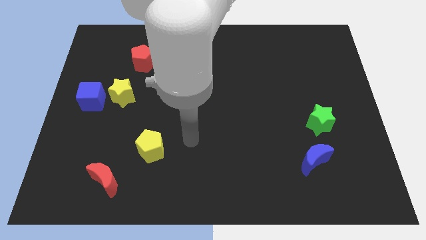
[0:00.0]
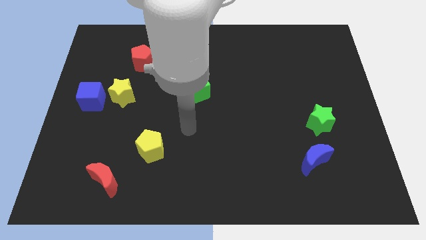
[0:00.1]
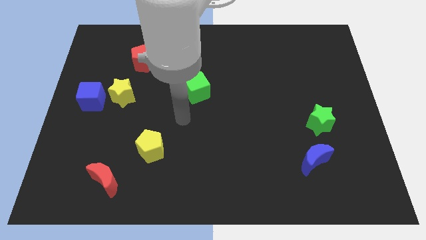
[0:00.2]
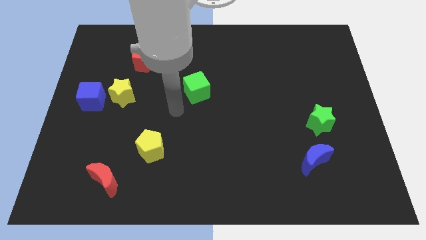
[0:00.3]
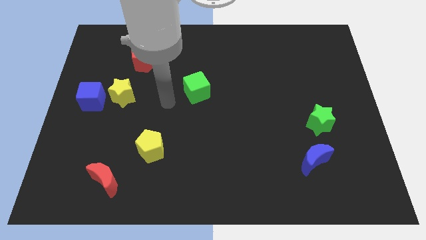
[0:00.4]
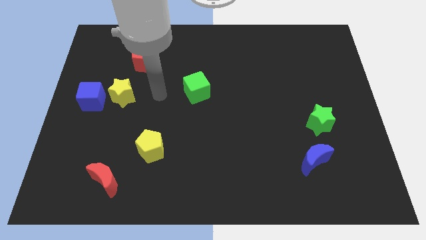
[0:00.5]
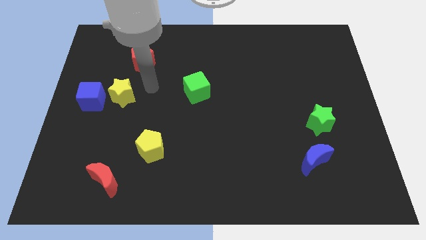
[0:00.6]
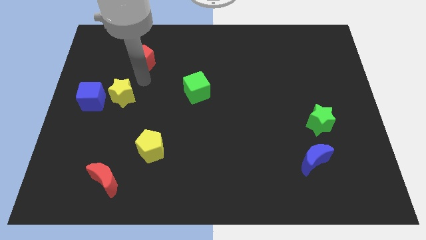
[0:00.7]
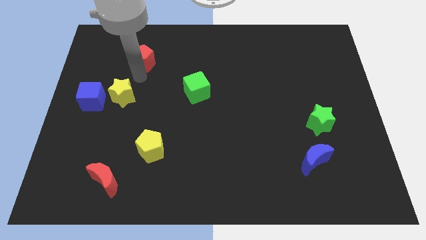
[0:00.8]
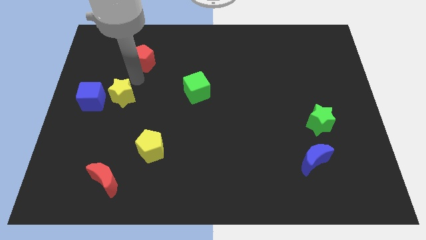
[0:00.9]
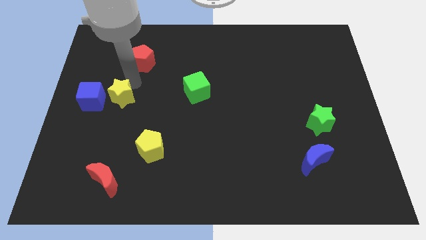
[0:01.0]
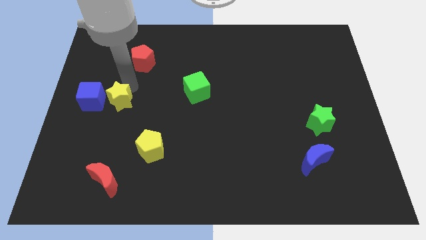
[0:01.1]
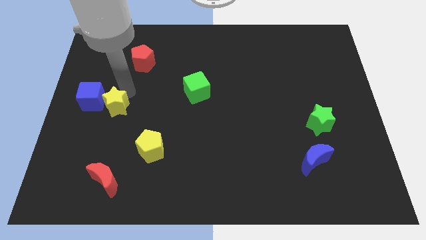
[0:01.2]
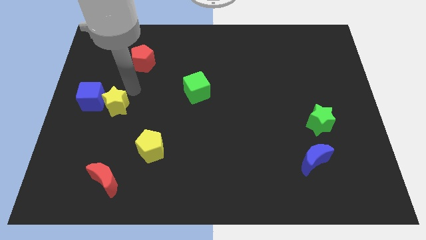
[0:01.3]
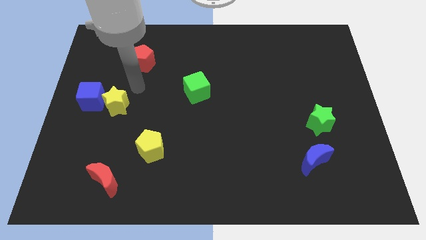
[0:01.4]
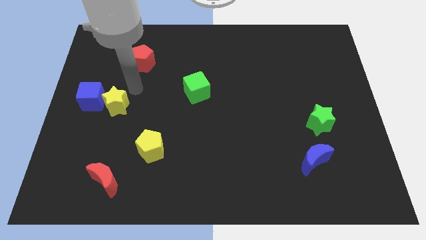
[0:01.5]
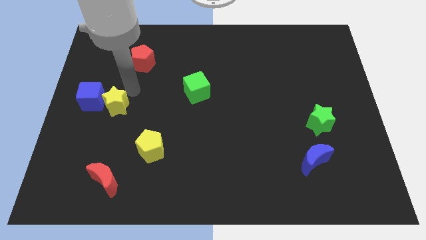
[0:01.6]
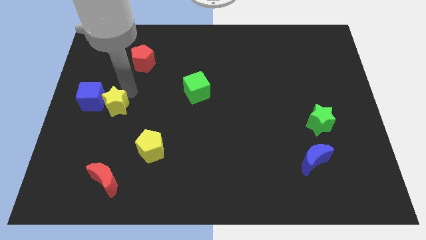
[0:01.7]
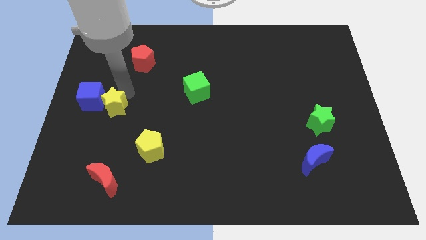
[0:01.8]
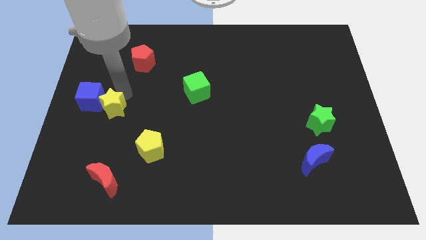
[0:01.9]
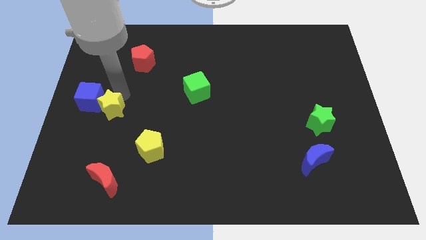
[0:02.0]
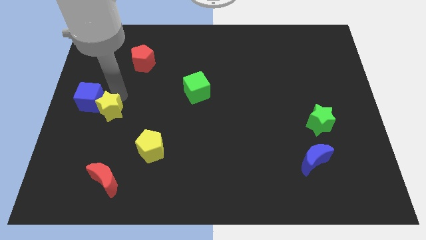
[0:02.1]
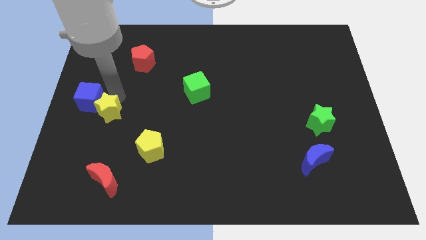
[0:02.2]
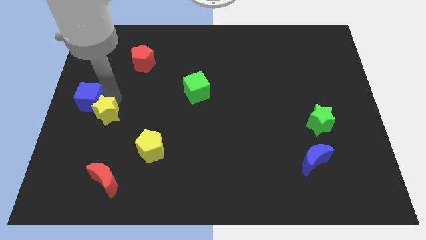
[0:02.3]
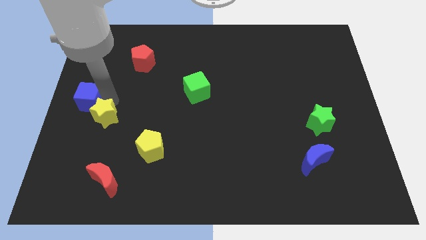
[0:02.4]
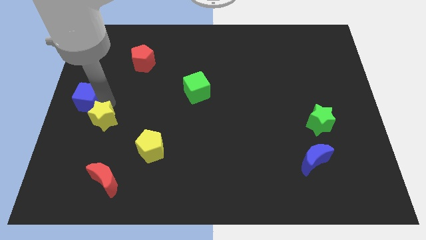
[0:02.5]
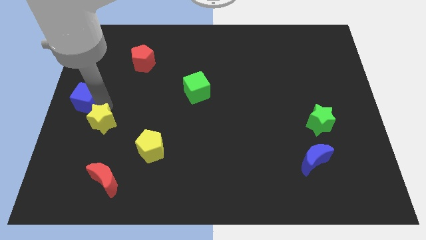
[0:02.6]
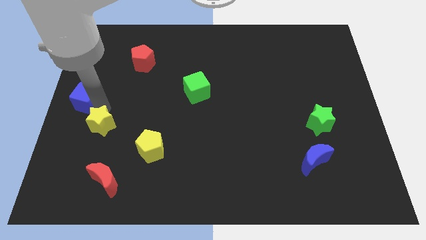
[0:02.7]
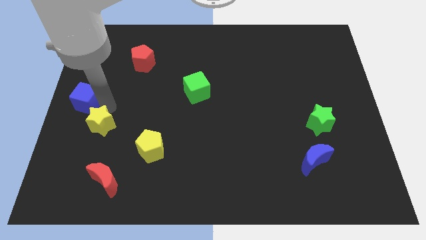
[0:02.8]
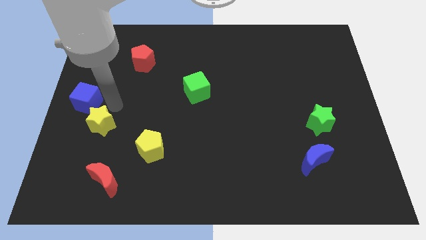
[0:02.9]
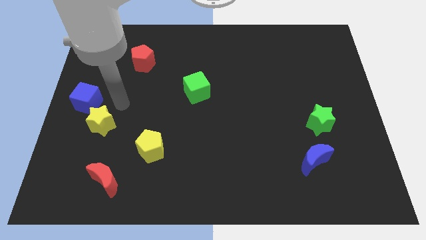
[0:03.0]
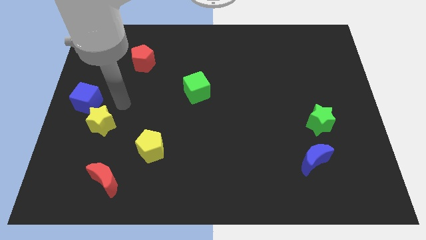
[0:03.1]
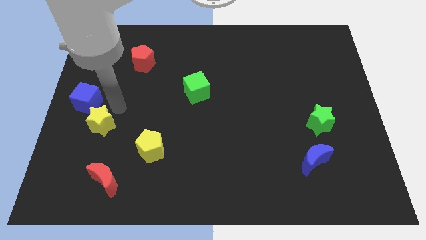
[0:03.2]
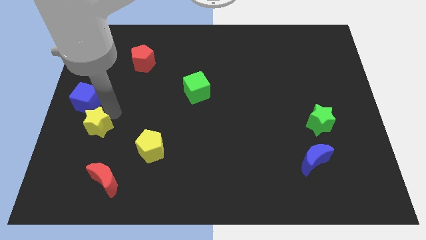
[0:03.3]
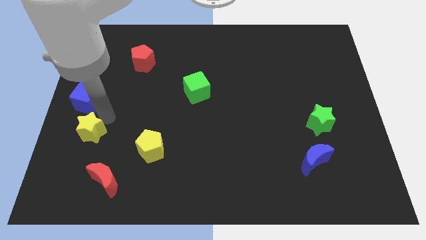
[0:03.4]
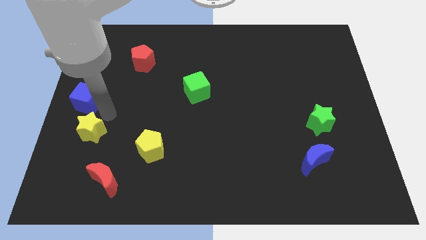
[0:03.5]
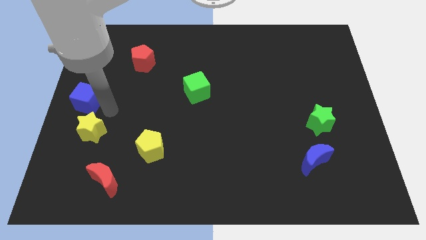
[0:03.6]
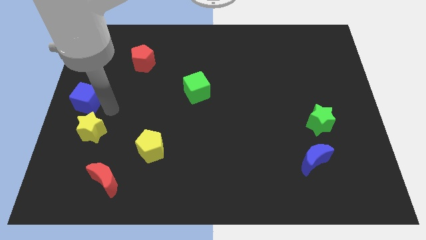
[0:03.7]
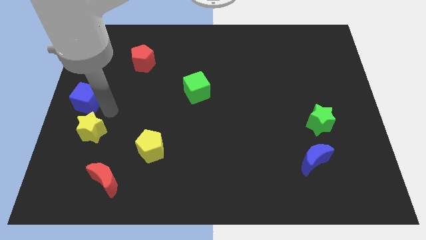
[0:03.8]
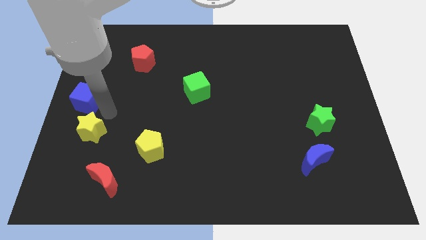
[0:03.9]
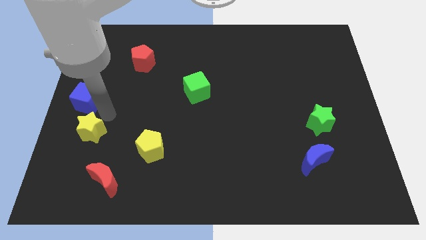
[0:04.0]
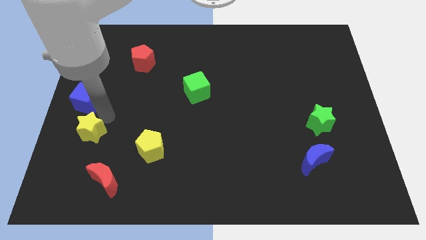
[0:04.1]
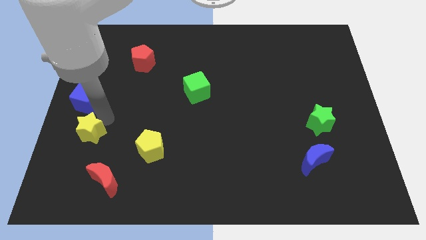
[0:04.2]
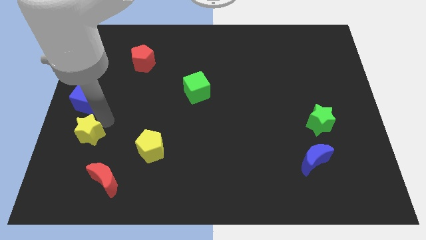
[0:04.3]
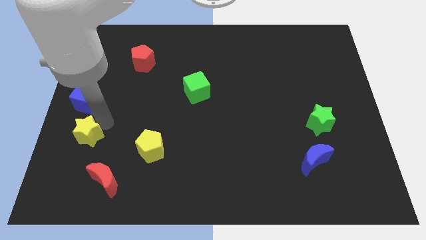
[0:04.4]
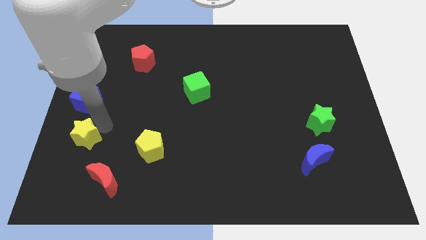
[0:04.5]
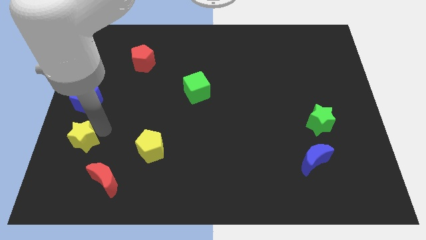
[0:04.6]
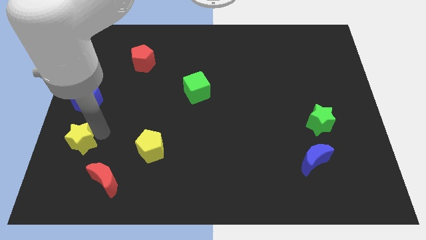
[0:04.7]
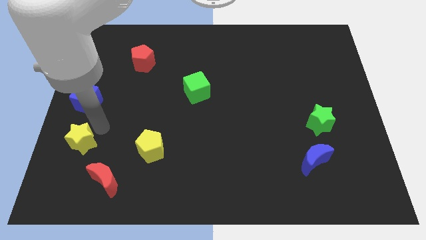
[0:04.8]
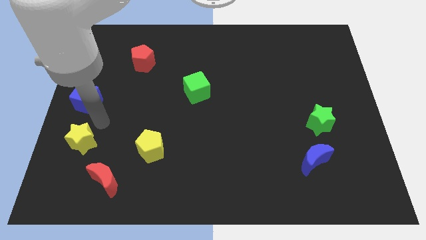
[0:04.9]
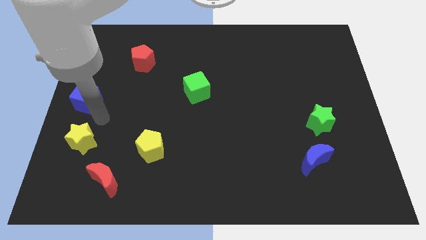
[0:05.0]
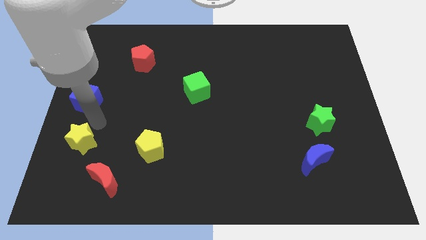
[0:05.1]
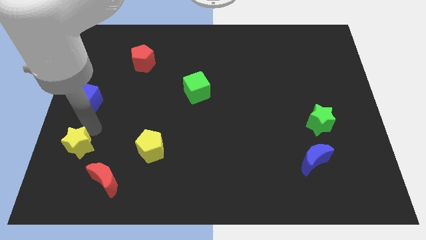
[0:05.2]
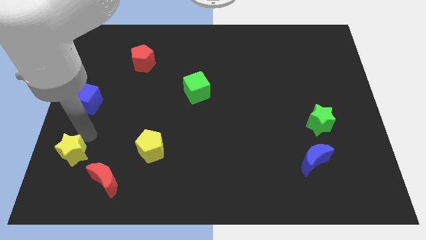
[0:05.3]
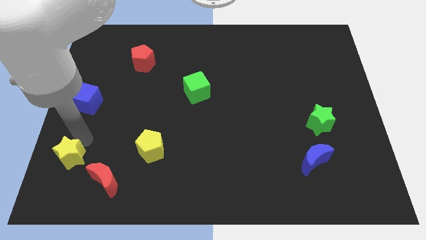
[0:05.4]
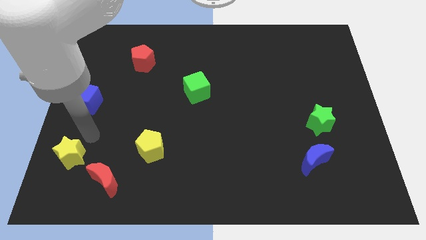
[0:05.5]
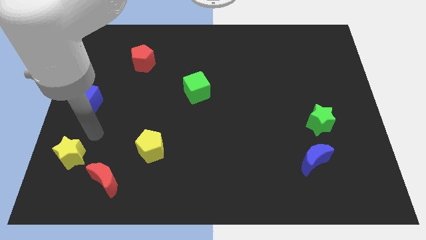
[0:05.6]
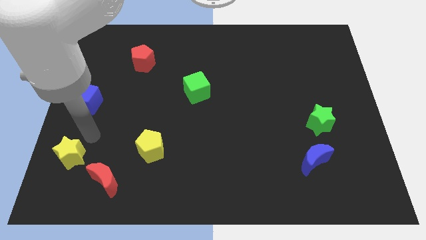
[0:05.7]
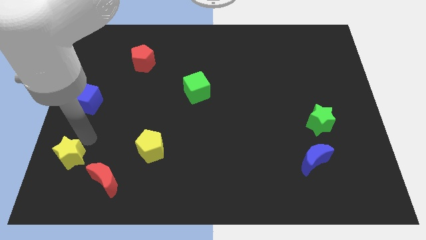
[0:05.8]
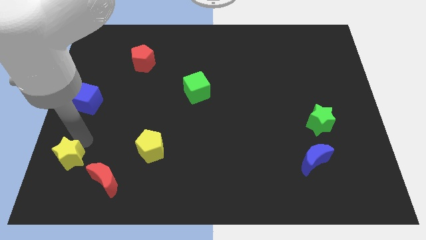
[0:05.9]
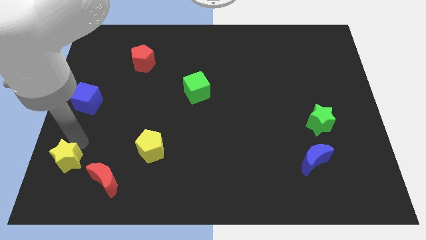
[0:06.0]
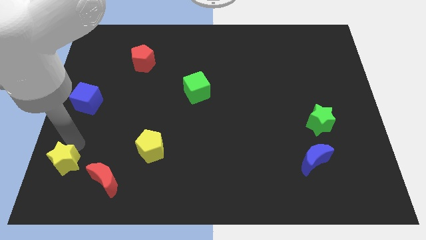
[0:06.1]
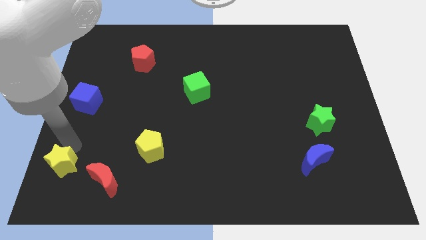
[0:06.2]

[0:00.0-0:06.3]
slide the yellow star to the bottom left of the board
